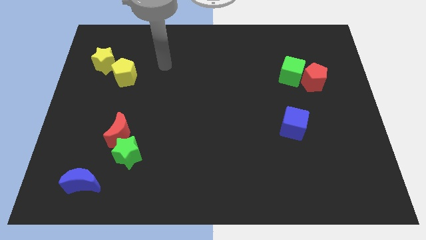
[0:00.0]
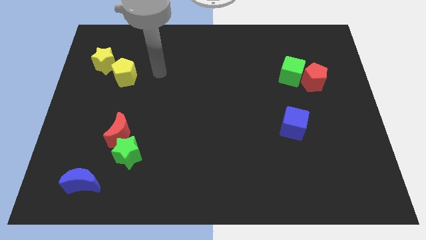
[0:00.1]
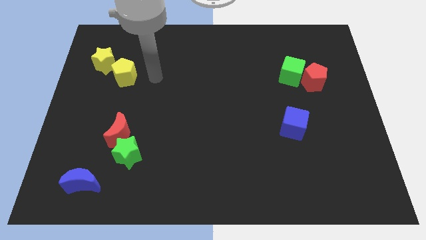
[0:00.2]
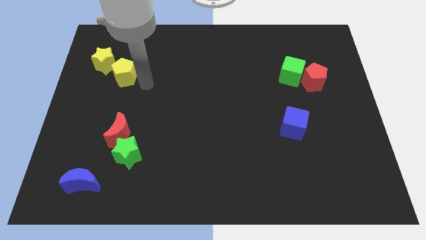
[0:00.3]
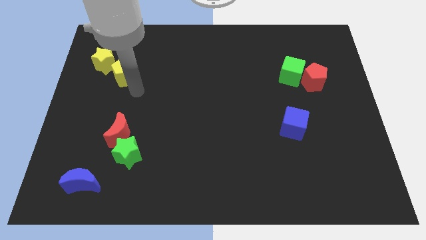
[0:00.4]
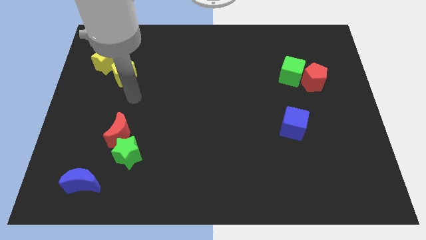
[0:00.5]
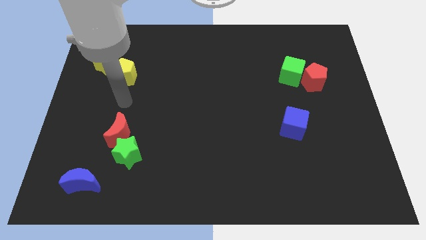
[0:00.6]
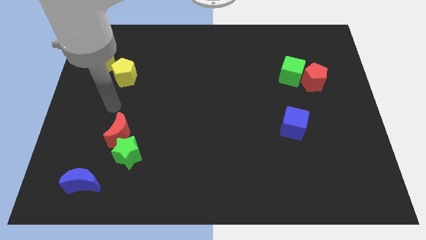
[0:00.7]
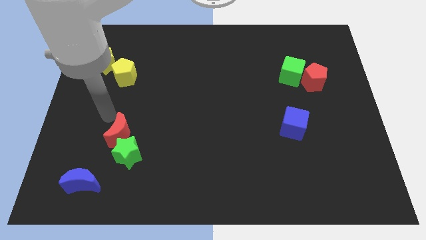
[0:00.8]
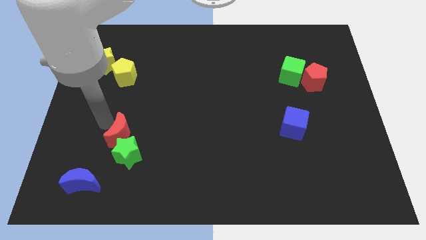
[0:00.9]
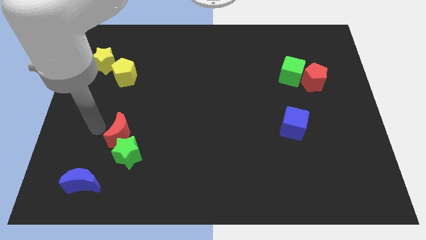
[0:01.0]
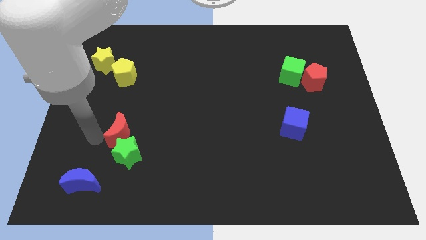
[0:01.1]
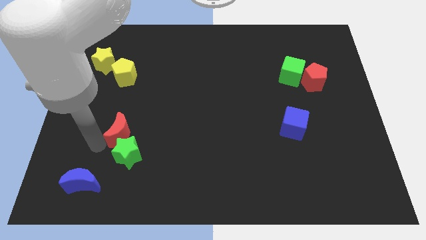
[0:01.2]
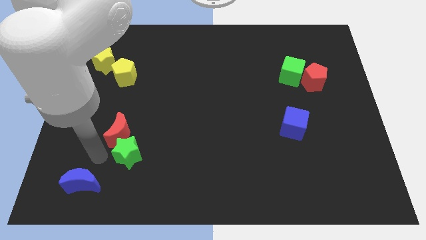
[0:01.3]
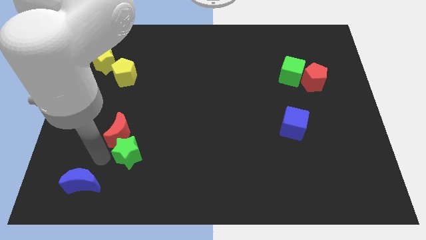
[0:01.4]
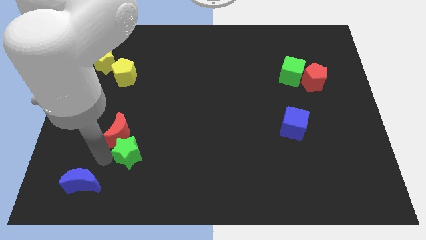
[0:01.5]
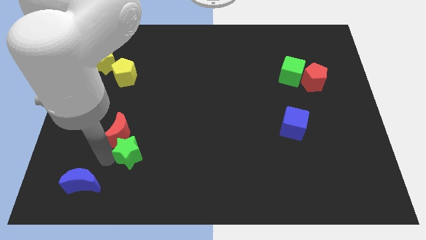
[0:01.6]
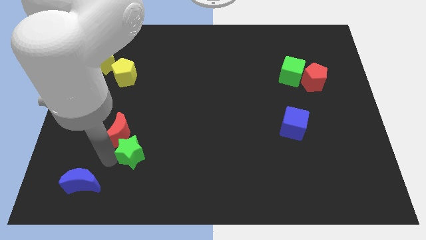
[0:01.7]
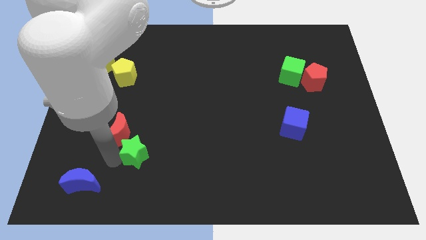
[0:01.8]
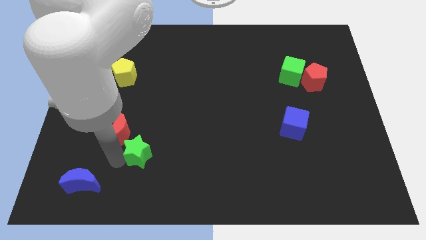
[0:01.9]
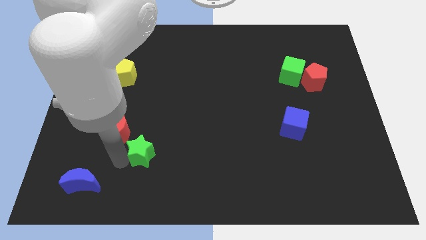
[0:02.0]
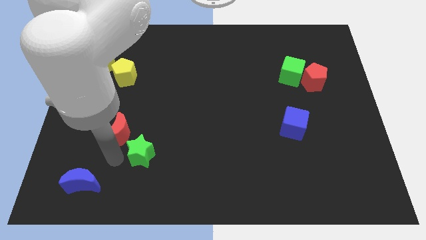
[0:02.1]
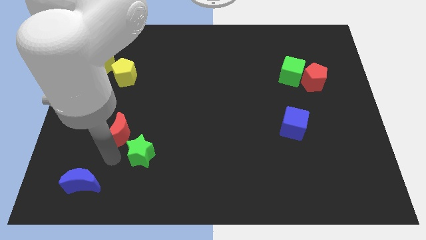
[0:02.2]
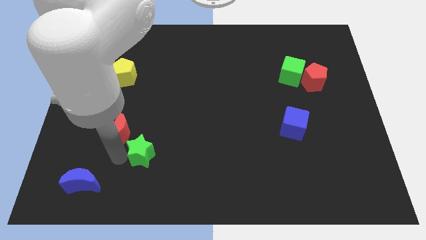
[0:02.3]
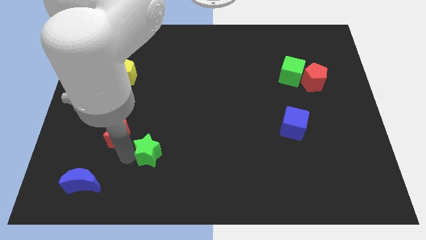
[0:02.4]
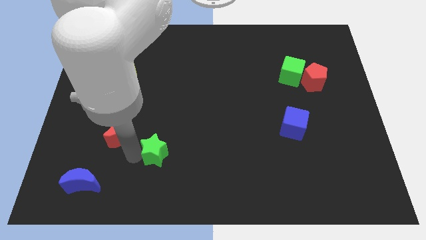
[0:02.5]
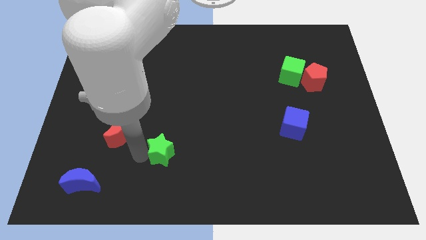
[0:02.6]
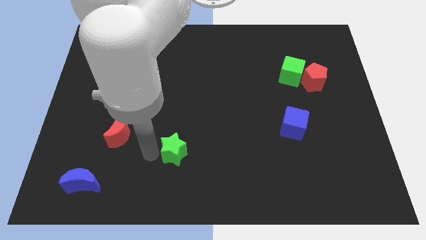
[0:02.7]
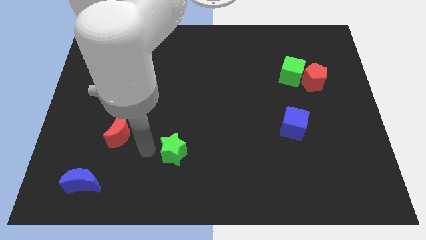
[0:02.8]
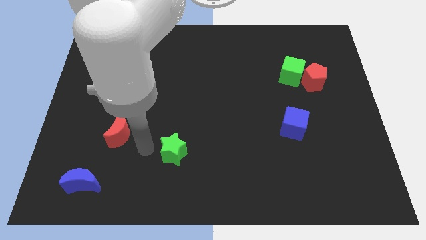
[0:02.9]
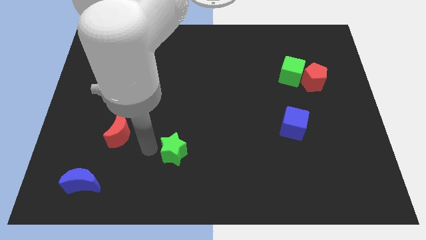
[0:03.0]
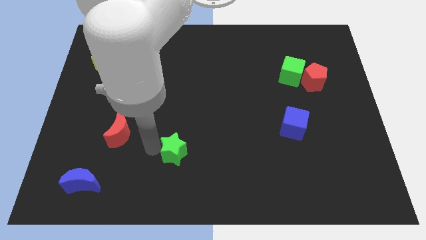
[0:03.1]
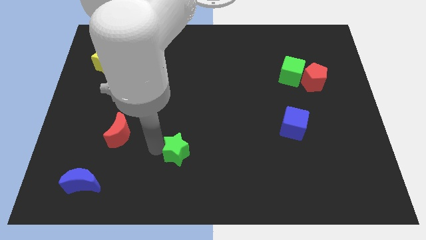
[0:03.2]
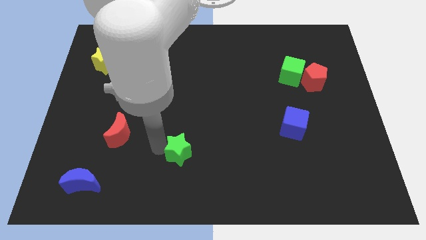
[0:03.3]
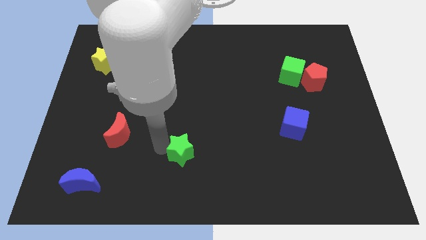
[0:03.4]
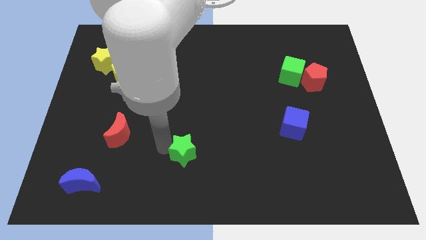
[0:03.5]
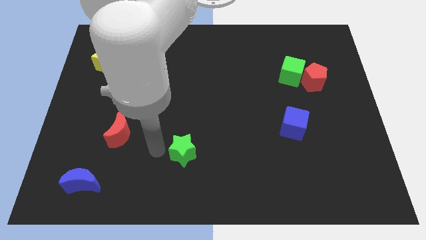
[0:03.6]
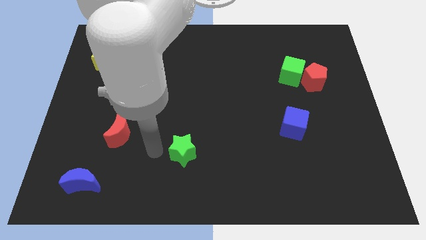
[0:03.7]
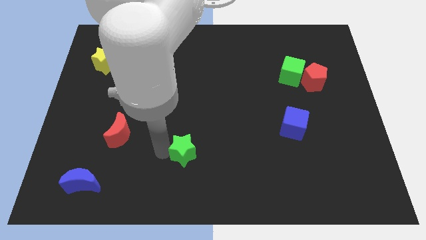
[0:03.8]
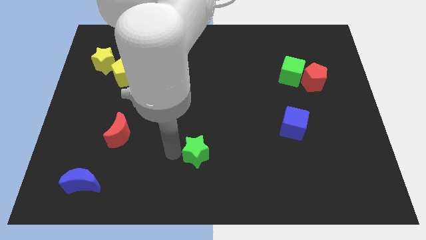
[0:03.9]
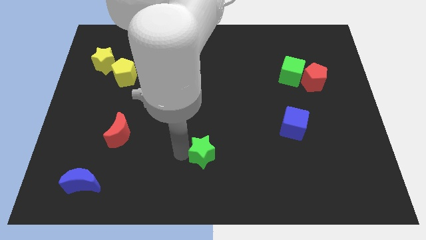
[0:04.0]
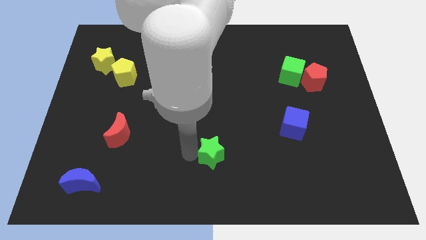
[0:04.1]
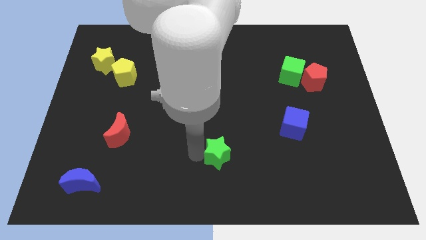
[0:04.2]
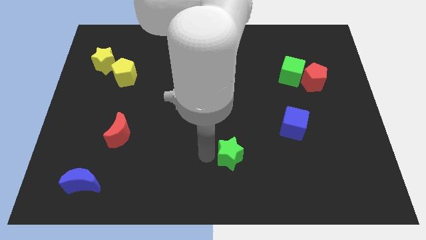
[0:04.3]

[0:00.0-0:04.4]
slide the green star to the right

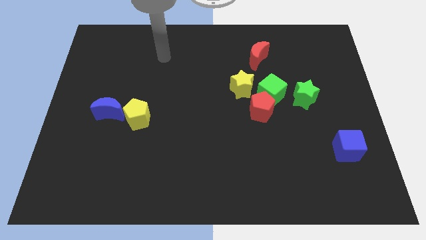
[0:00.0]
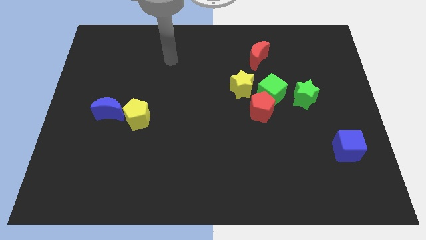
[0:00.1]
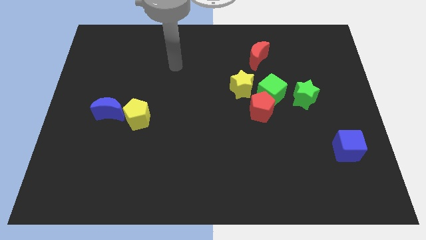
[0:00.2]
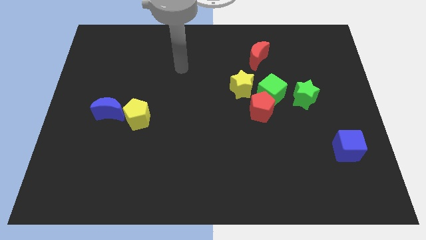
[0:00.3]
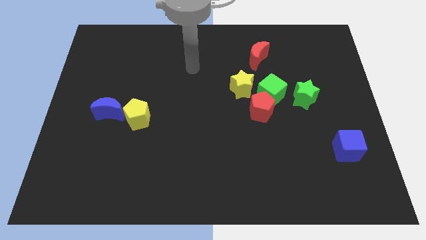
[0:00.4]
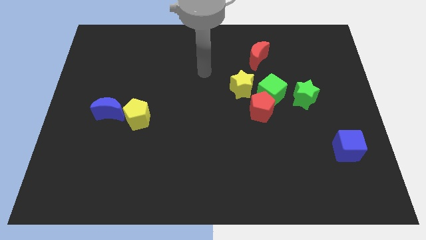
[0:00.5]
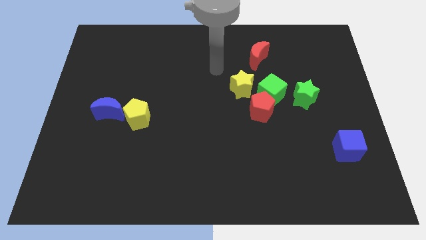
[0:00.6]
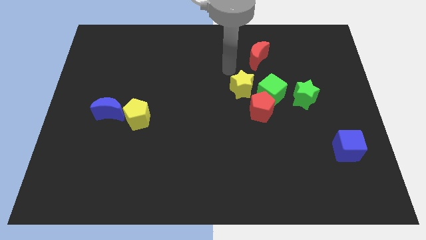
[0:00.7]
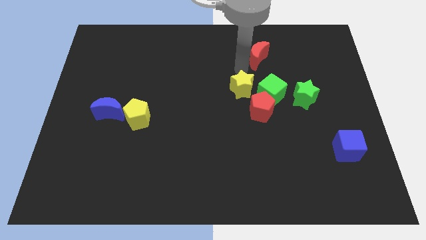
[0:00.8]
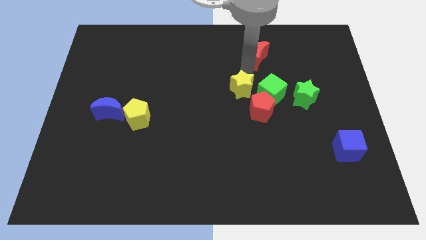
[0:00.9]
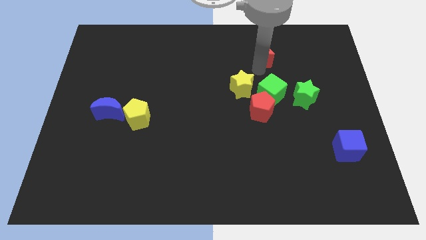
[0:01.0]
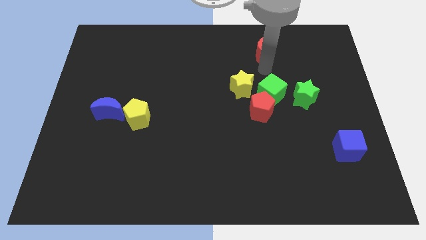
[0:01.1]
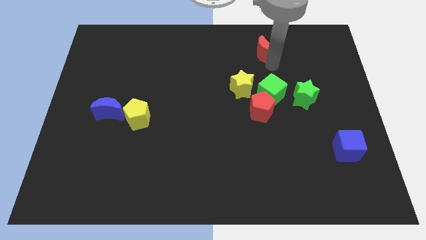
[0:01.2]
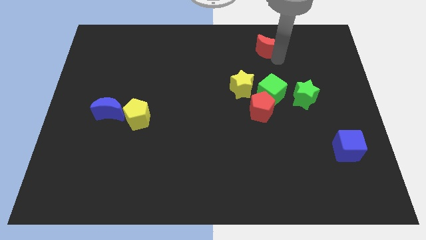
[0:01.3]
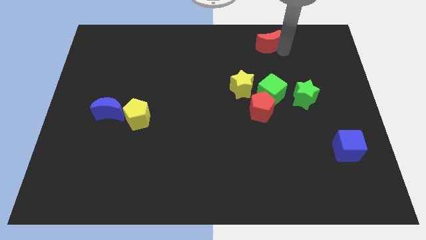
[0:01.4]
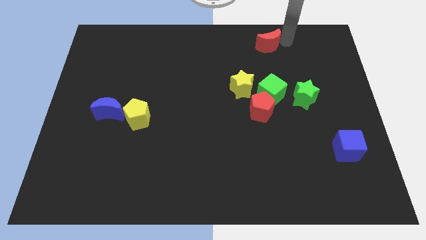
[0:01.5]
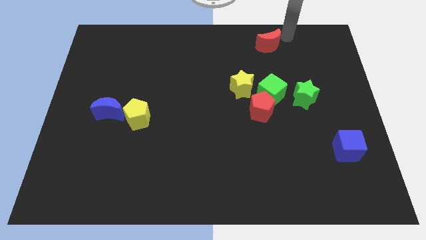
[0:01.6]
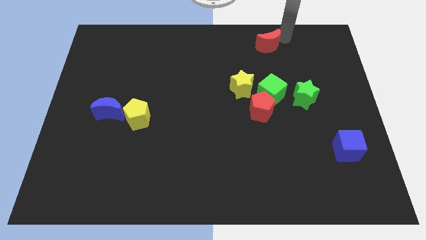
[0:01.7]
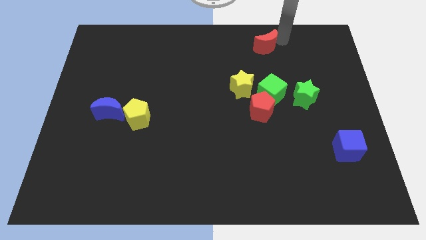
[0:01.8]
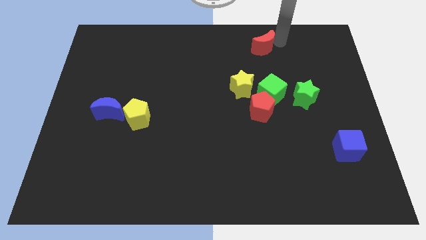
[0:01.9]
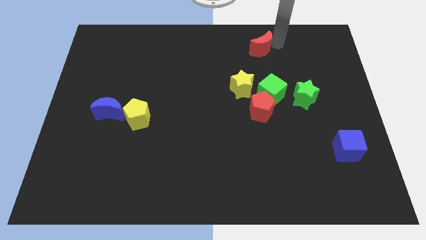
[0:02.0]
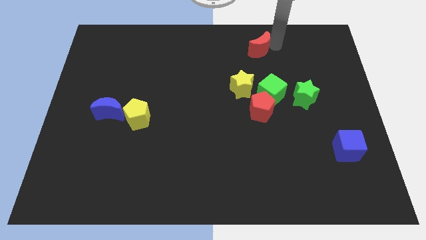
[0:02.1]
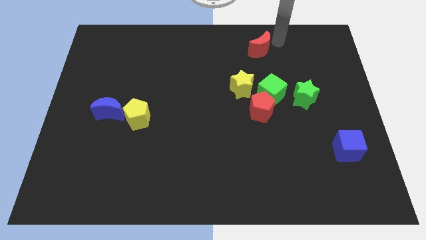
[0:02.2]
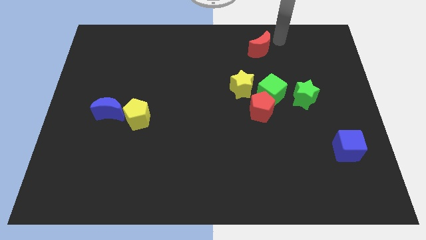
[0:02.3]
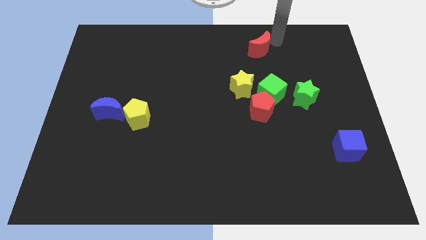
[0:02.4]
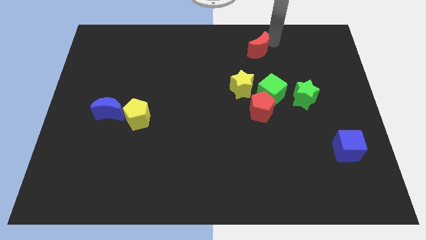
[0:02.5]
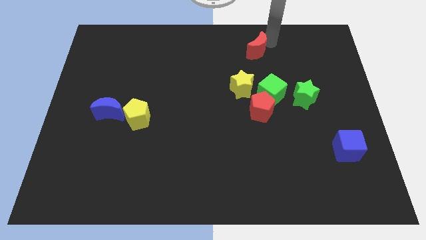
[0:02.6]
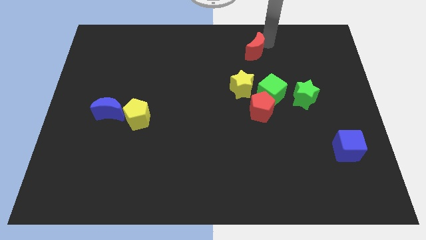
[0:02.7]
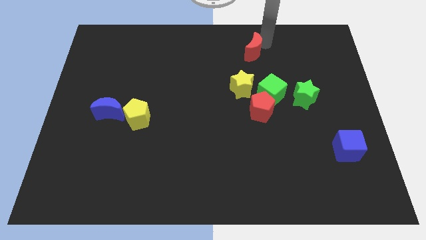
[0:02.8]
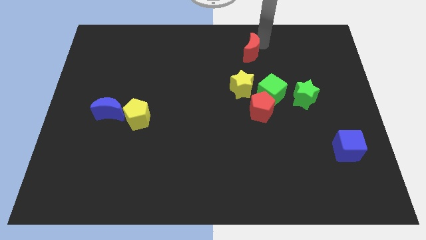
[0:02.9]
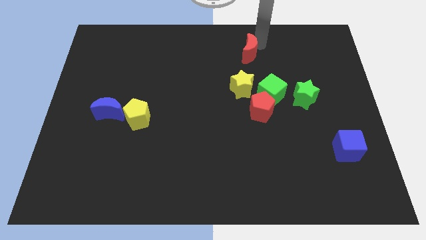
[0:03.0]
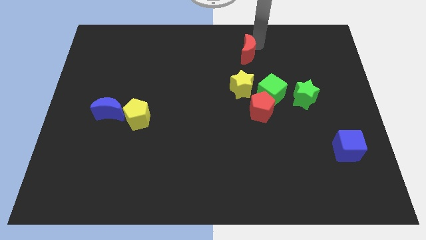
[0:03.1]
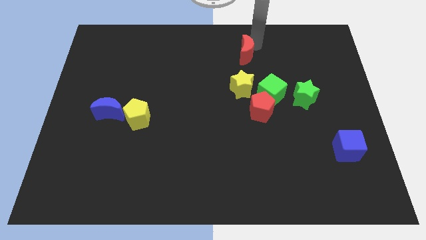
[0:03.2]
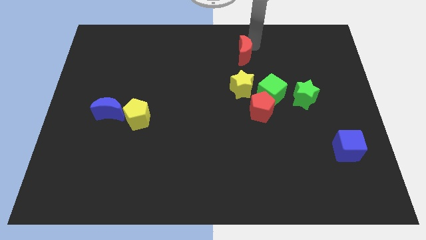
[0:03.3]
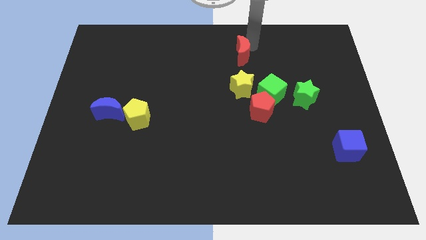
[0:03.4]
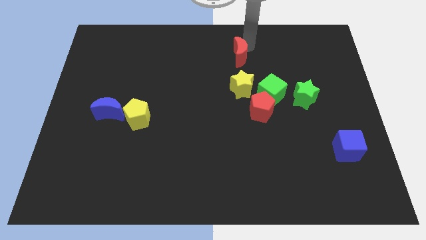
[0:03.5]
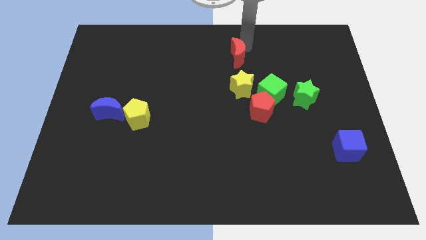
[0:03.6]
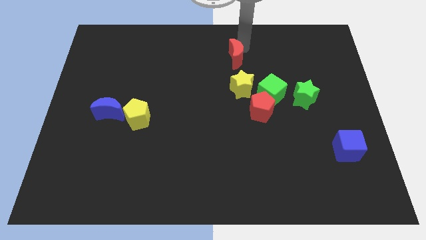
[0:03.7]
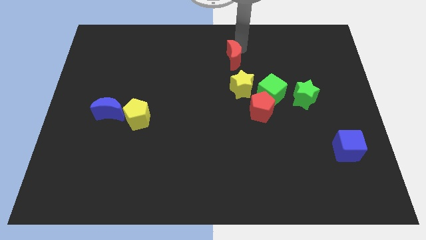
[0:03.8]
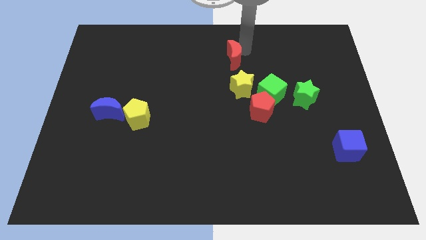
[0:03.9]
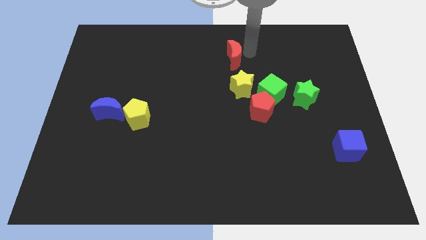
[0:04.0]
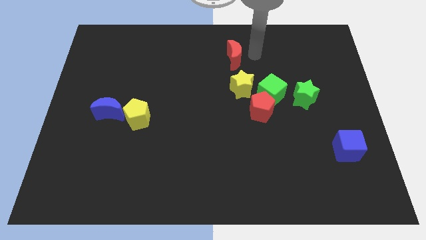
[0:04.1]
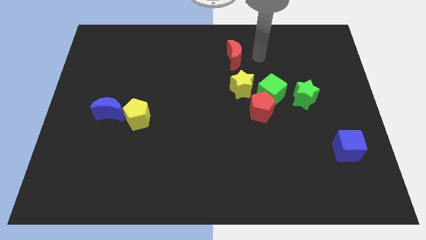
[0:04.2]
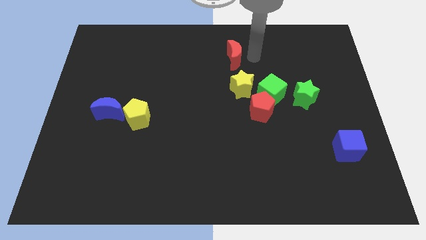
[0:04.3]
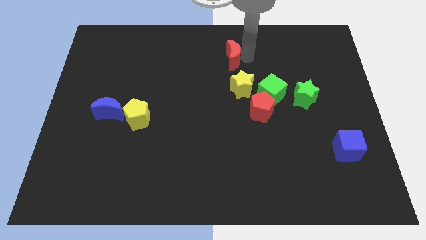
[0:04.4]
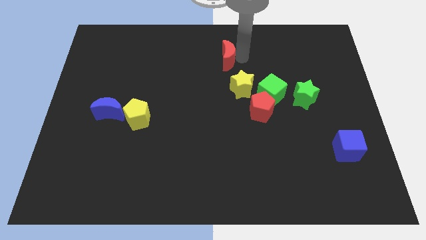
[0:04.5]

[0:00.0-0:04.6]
slightly move the red moon left
